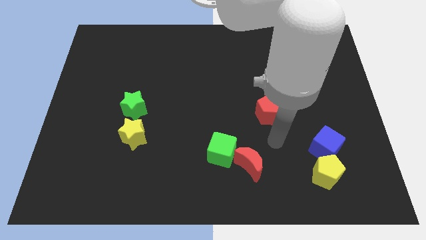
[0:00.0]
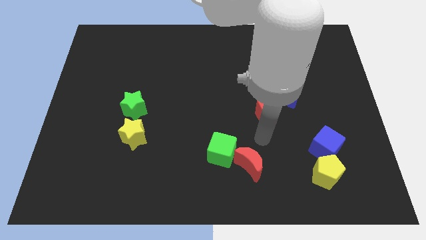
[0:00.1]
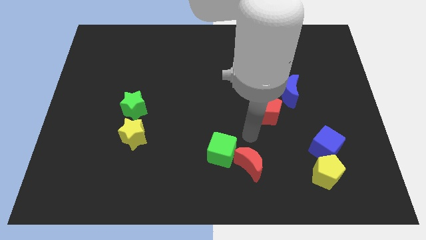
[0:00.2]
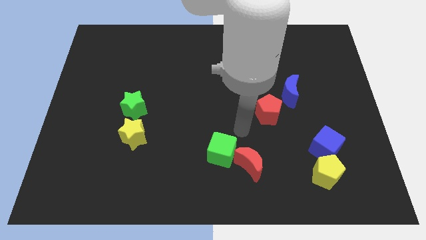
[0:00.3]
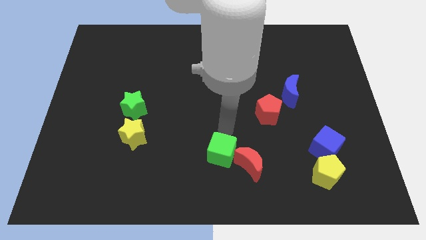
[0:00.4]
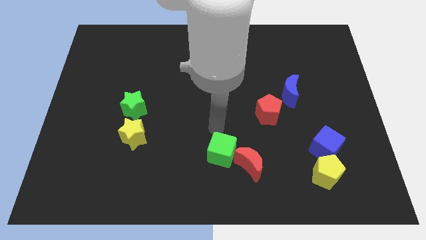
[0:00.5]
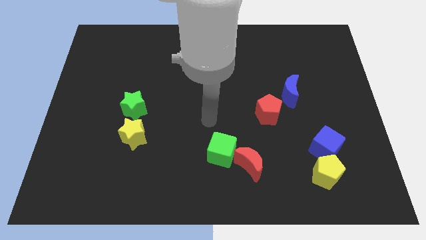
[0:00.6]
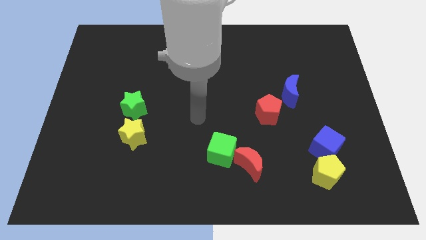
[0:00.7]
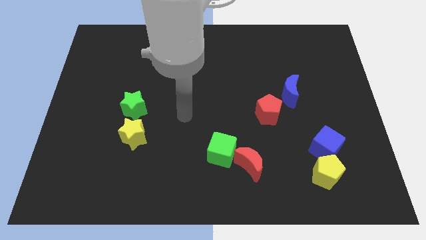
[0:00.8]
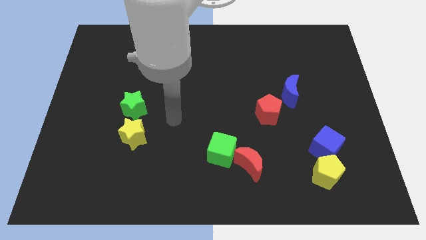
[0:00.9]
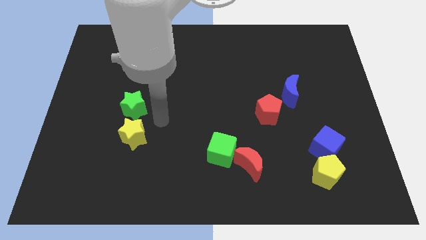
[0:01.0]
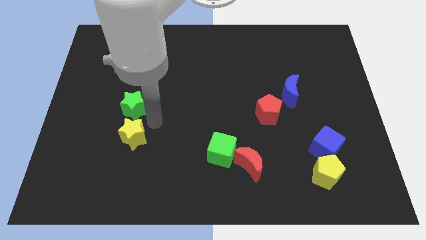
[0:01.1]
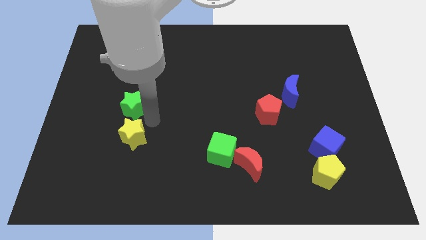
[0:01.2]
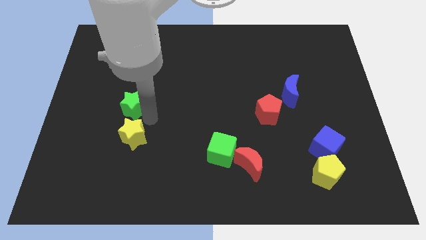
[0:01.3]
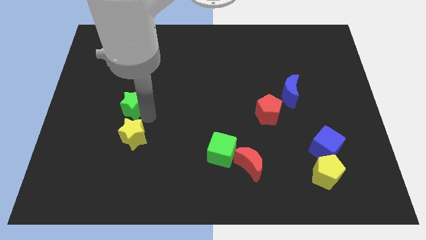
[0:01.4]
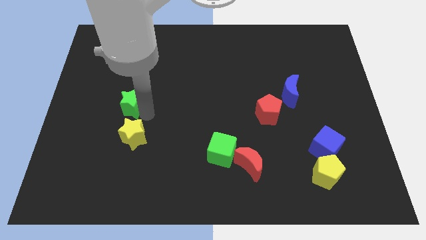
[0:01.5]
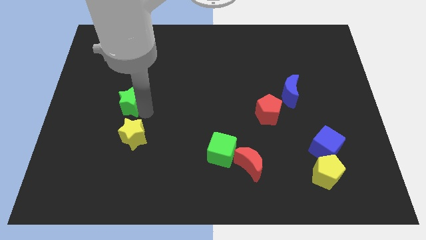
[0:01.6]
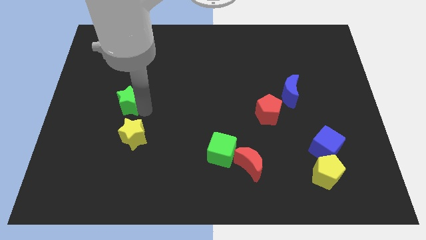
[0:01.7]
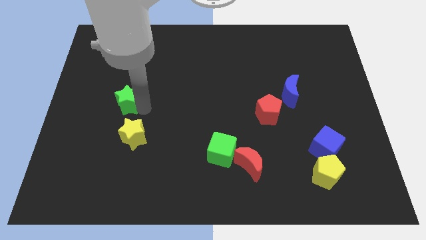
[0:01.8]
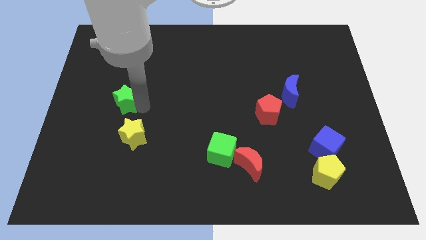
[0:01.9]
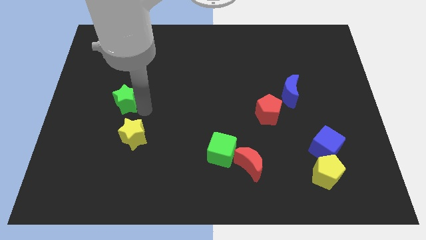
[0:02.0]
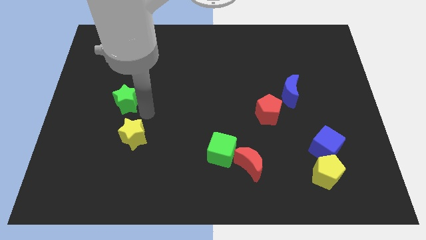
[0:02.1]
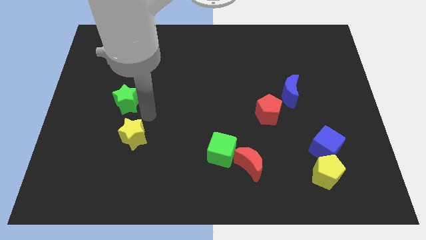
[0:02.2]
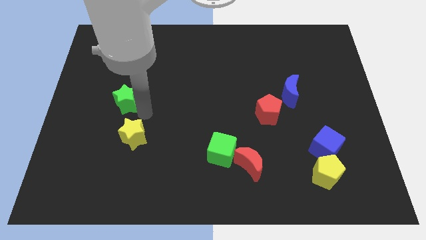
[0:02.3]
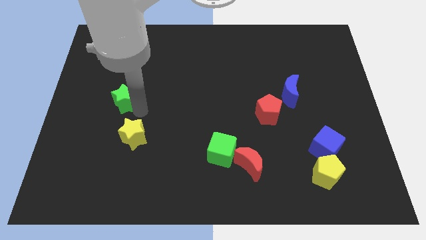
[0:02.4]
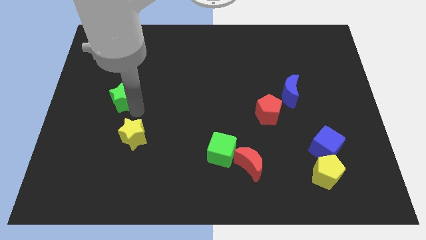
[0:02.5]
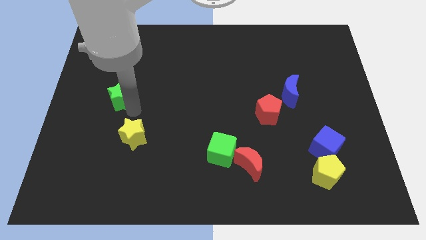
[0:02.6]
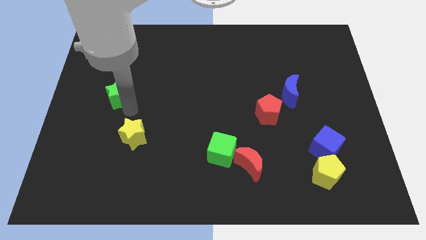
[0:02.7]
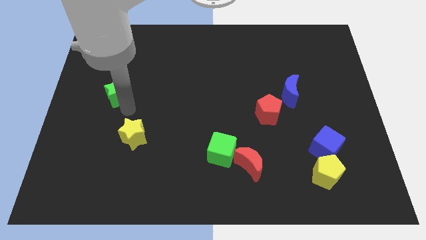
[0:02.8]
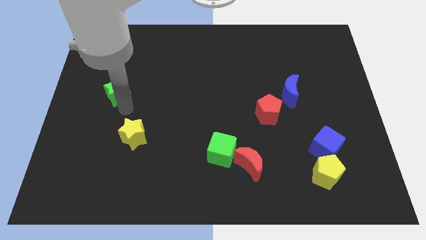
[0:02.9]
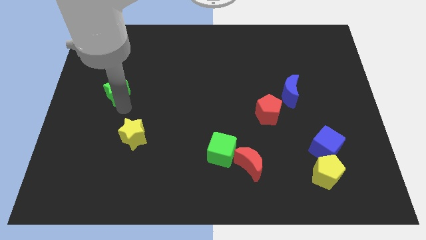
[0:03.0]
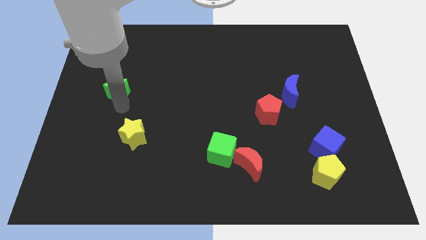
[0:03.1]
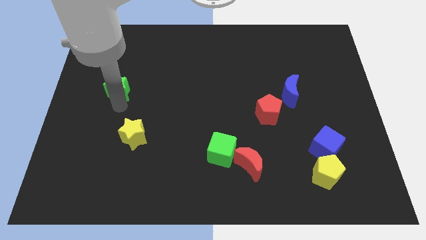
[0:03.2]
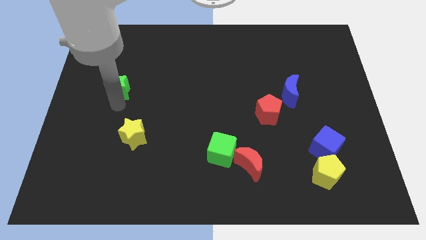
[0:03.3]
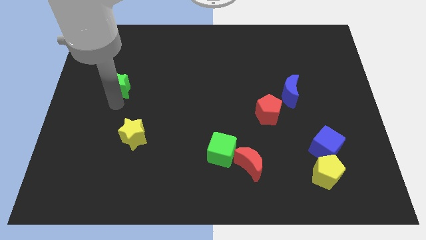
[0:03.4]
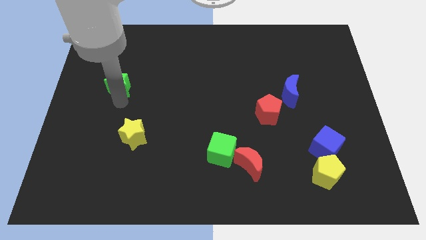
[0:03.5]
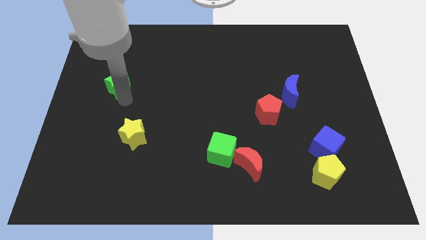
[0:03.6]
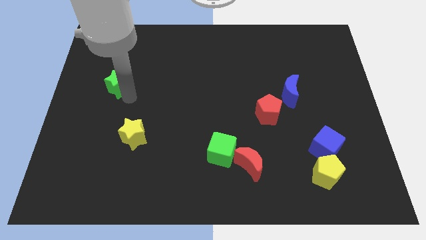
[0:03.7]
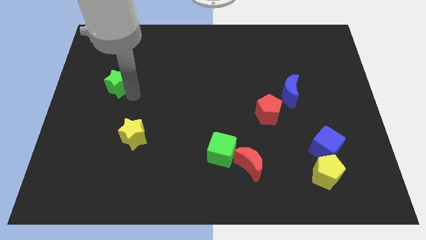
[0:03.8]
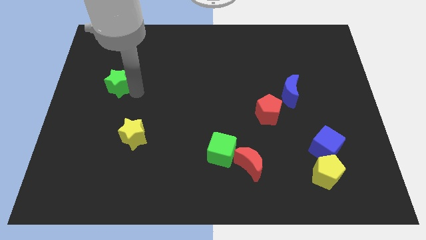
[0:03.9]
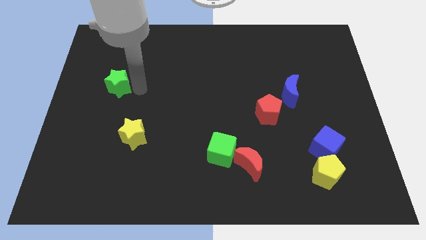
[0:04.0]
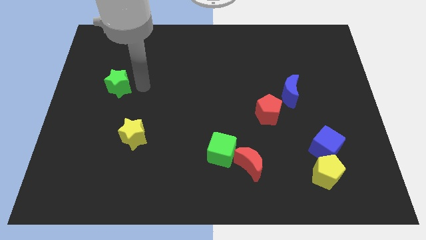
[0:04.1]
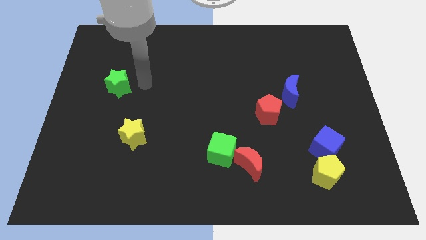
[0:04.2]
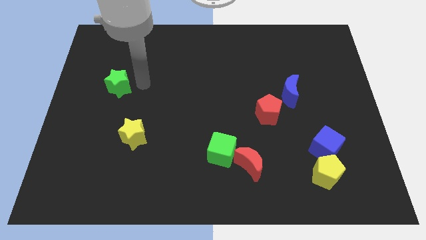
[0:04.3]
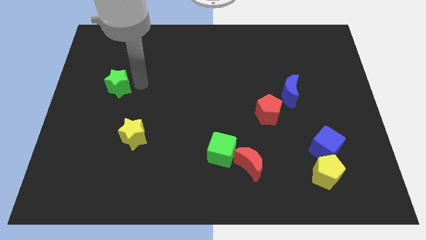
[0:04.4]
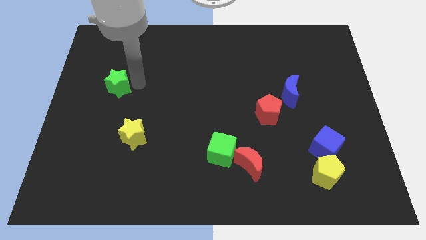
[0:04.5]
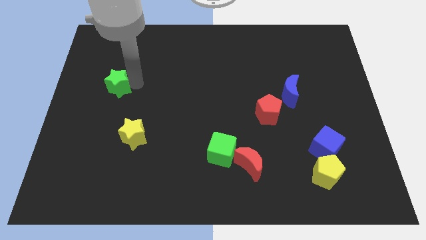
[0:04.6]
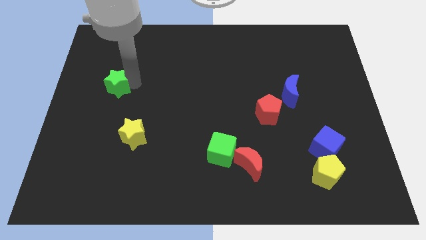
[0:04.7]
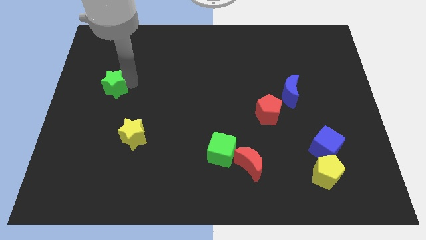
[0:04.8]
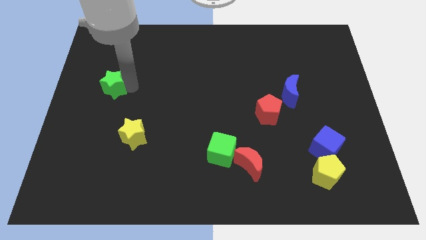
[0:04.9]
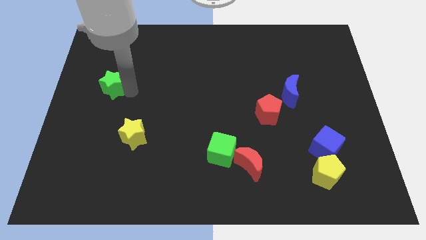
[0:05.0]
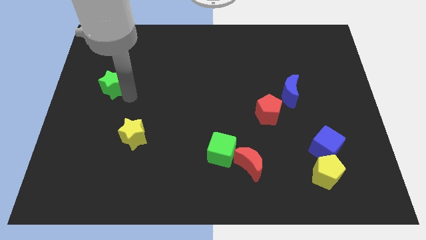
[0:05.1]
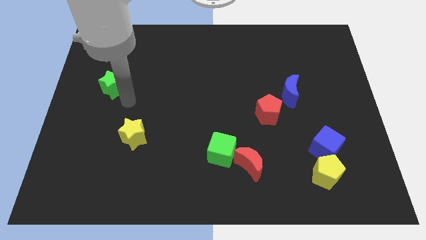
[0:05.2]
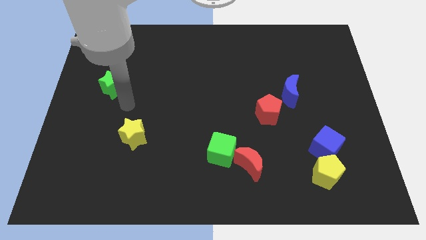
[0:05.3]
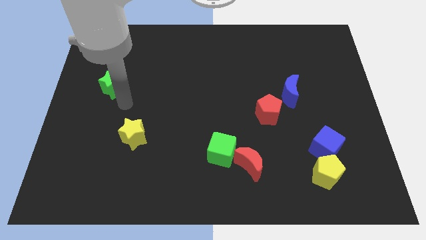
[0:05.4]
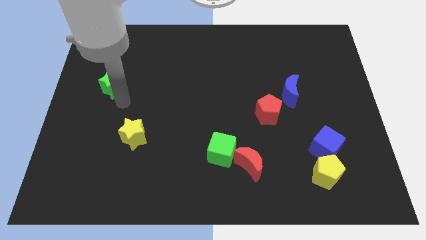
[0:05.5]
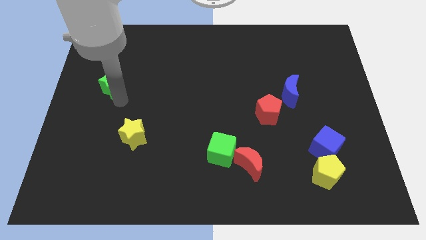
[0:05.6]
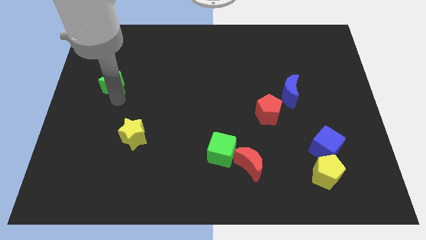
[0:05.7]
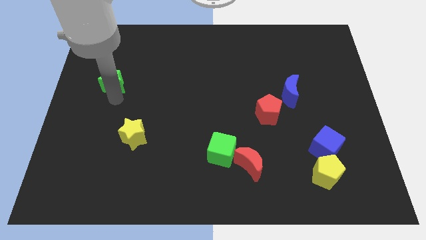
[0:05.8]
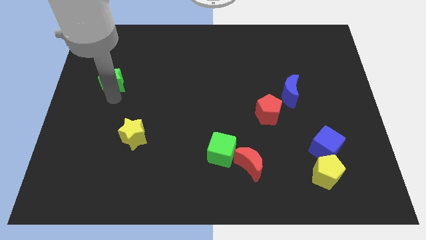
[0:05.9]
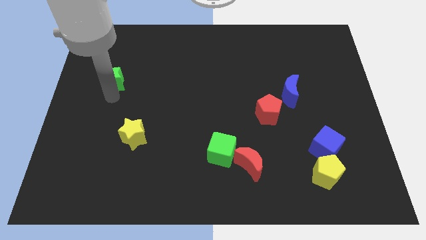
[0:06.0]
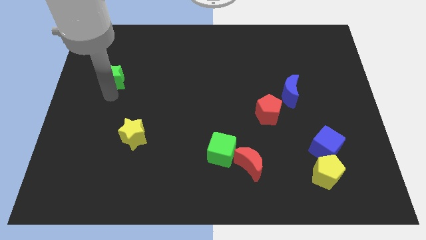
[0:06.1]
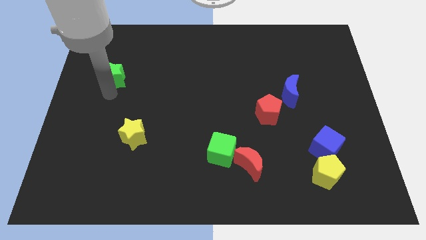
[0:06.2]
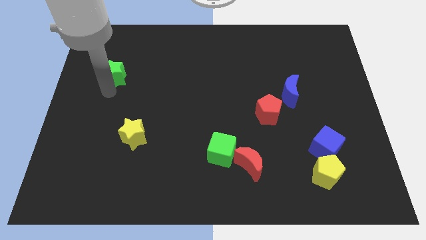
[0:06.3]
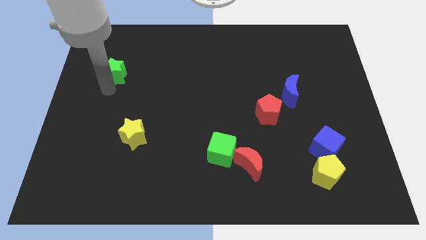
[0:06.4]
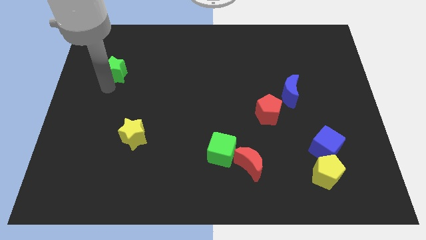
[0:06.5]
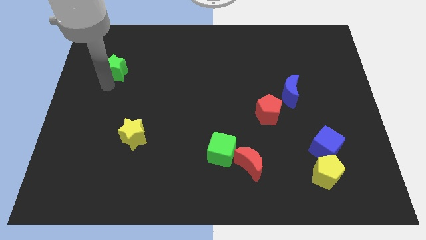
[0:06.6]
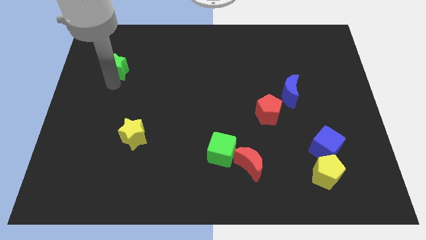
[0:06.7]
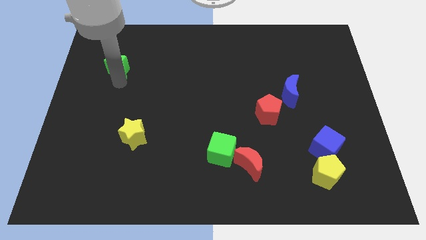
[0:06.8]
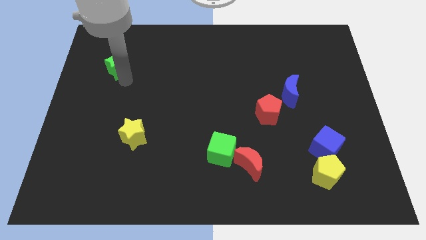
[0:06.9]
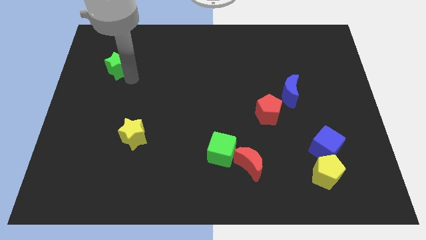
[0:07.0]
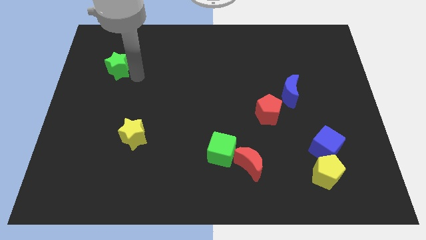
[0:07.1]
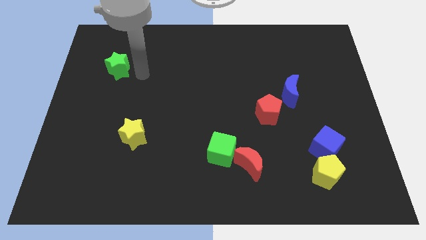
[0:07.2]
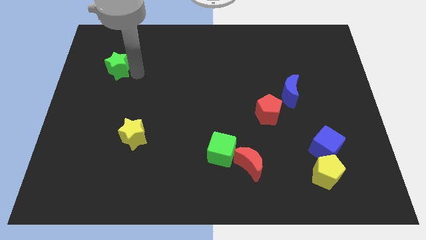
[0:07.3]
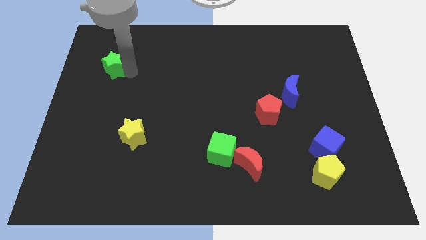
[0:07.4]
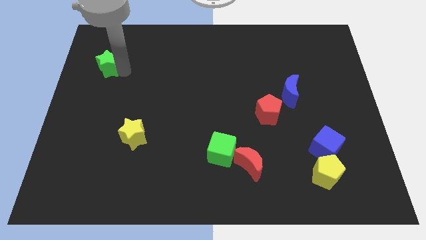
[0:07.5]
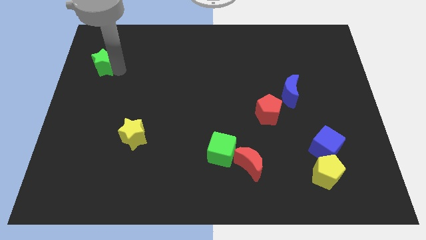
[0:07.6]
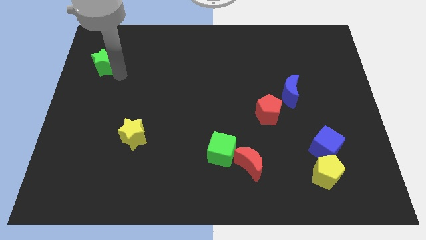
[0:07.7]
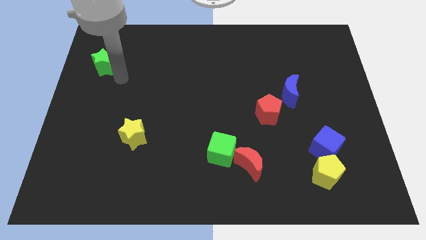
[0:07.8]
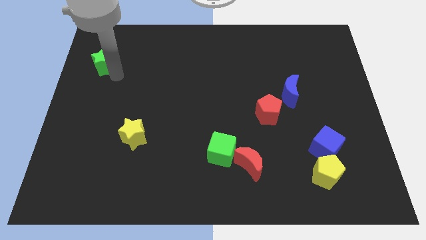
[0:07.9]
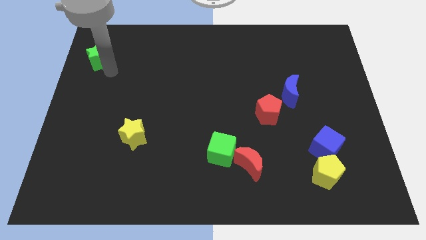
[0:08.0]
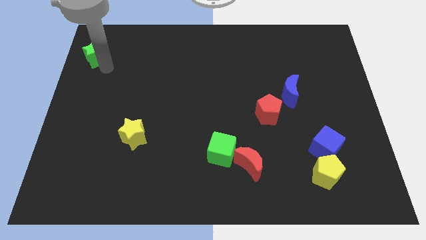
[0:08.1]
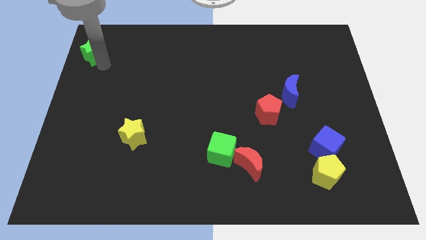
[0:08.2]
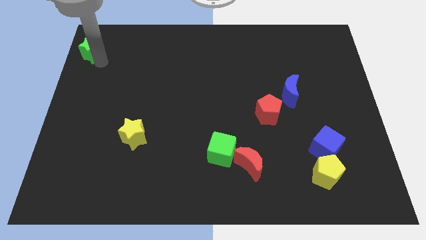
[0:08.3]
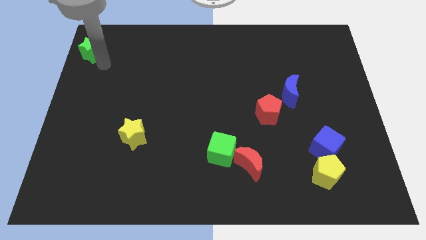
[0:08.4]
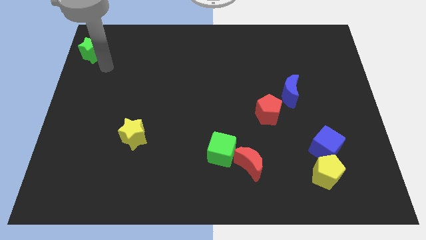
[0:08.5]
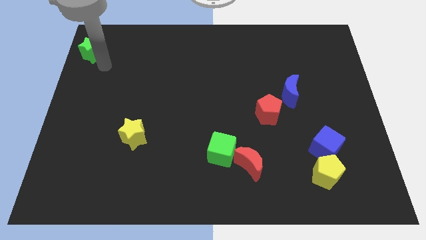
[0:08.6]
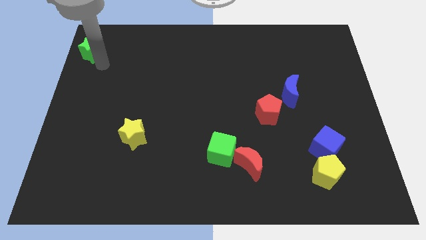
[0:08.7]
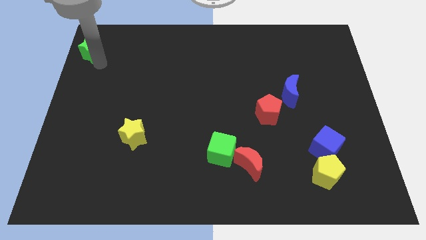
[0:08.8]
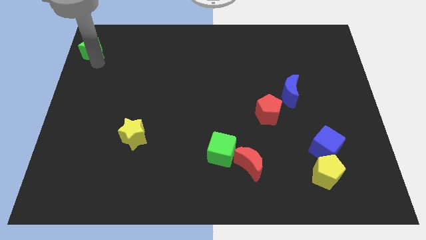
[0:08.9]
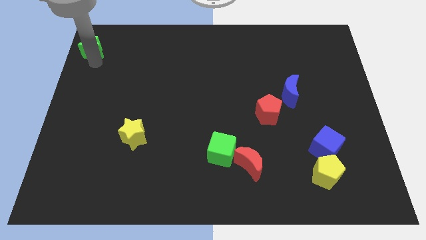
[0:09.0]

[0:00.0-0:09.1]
push the green star to the top left of the board
